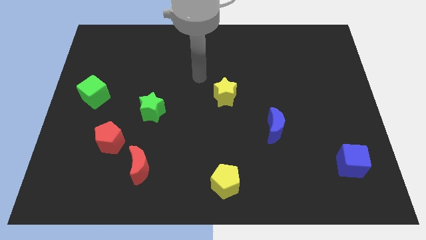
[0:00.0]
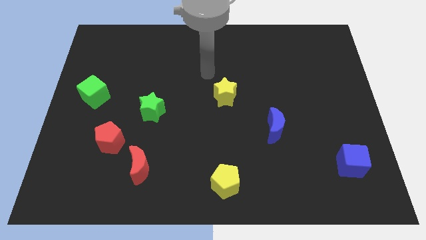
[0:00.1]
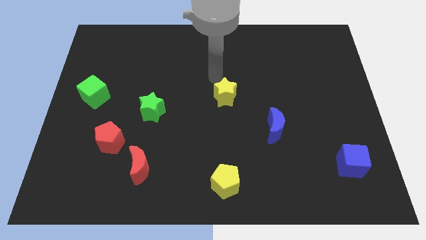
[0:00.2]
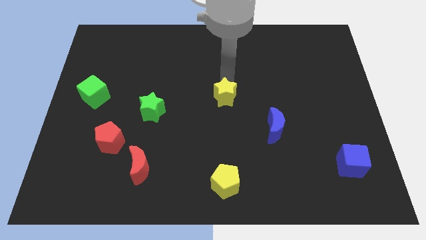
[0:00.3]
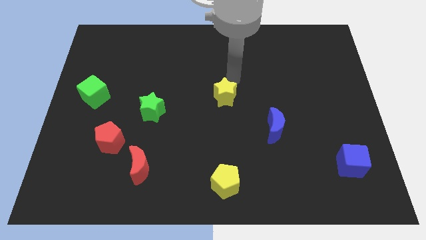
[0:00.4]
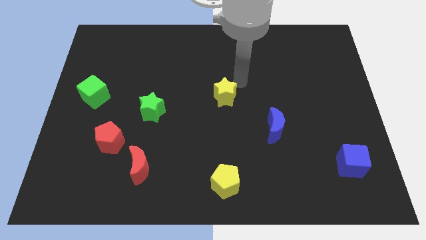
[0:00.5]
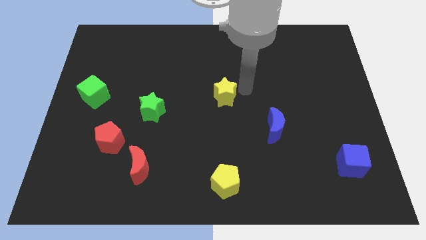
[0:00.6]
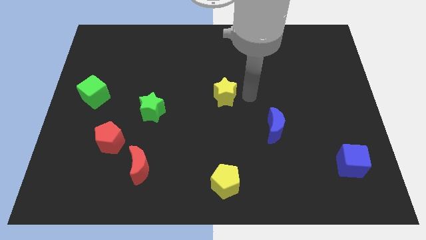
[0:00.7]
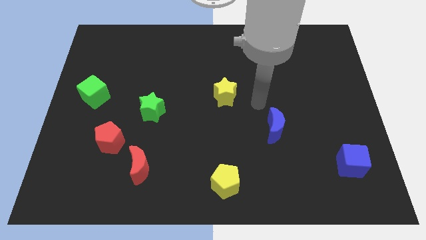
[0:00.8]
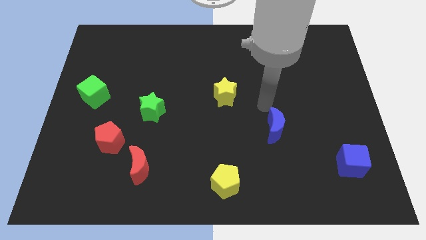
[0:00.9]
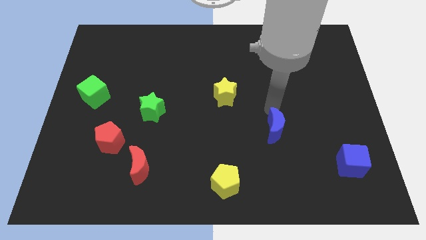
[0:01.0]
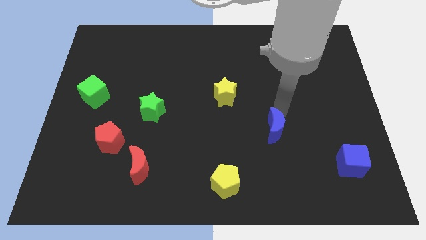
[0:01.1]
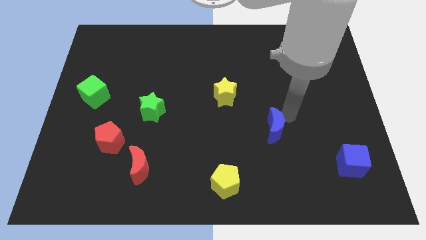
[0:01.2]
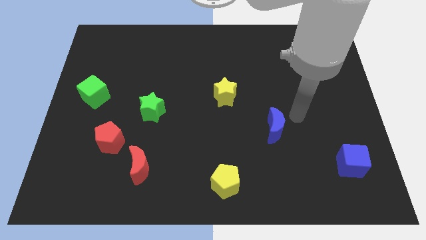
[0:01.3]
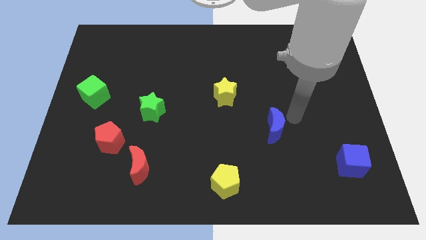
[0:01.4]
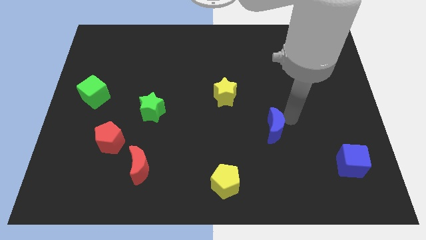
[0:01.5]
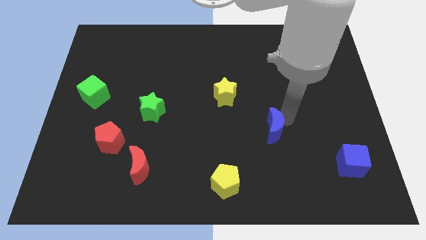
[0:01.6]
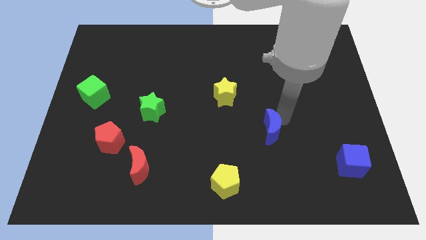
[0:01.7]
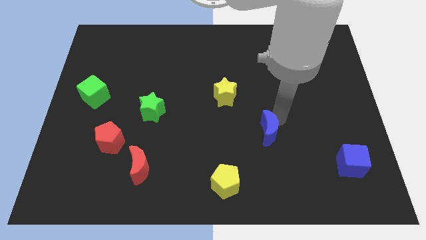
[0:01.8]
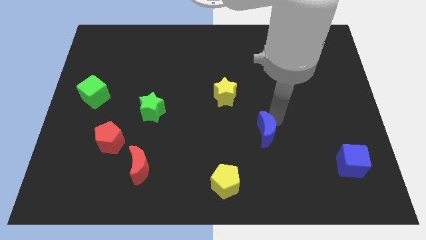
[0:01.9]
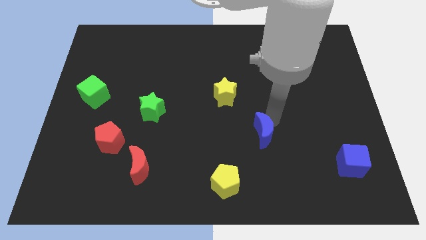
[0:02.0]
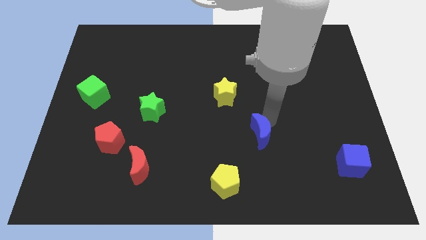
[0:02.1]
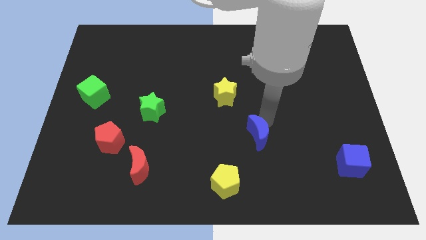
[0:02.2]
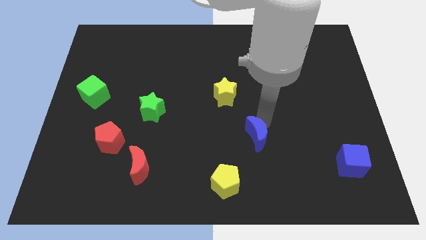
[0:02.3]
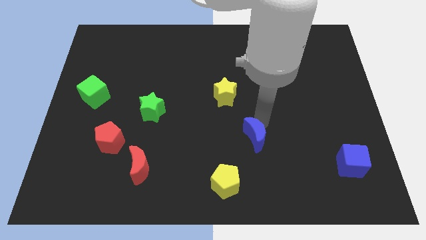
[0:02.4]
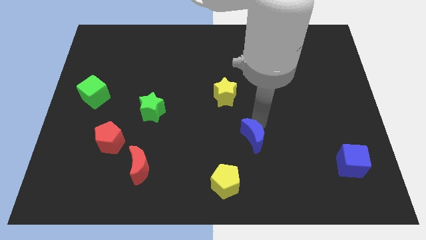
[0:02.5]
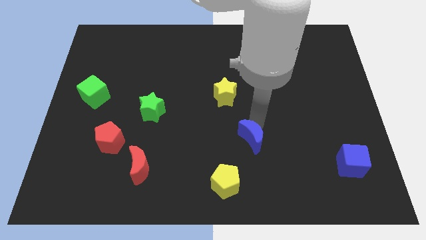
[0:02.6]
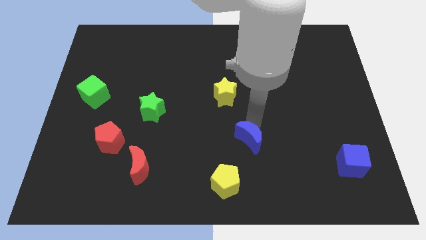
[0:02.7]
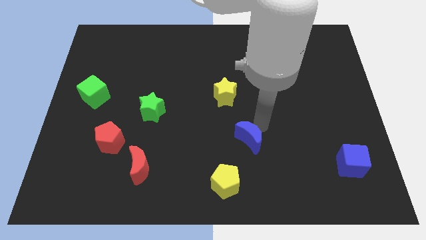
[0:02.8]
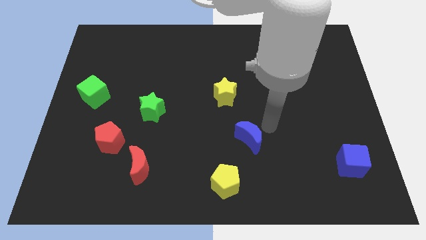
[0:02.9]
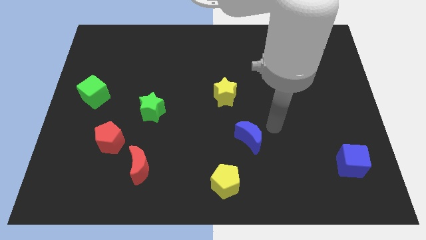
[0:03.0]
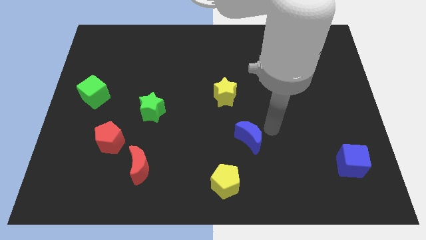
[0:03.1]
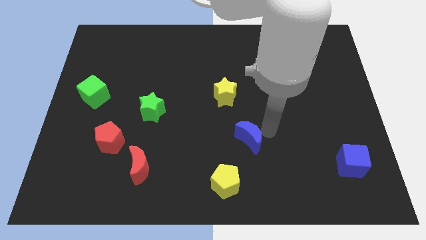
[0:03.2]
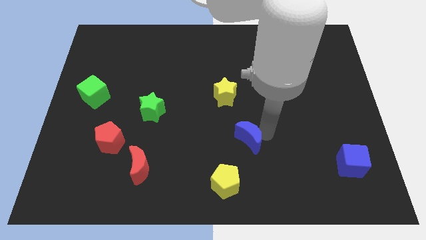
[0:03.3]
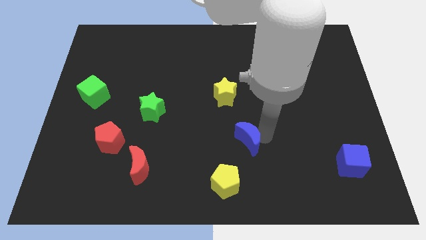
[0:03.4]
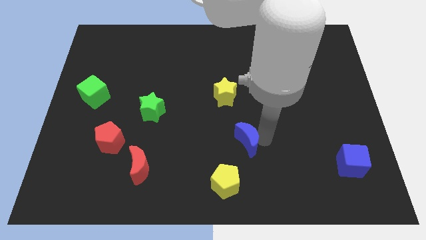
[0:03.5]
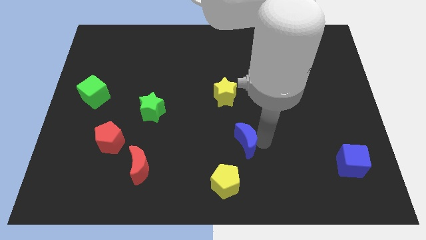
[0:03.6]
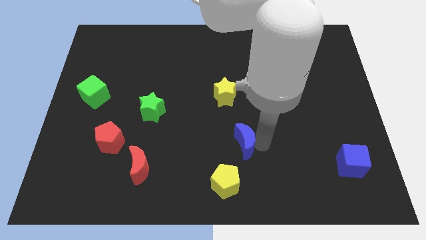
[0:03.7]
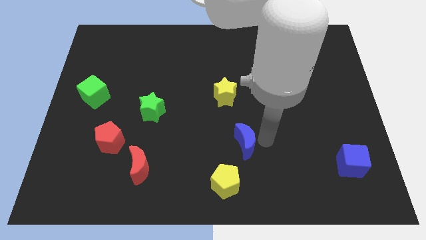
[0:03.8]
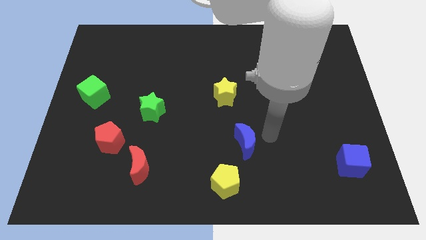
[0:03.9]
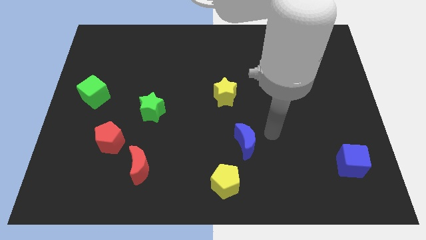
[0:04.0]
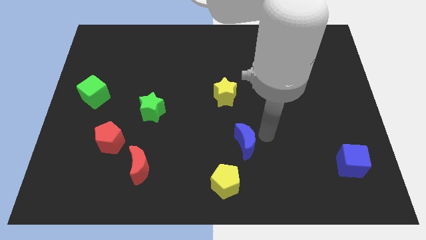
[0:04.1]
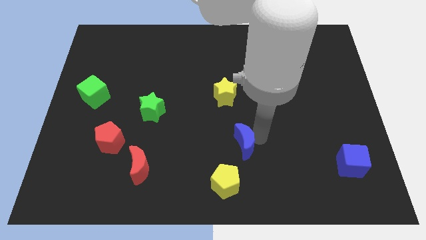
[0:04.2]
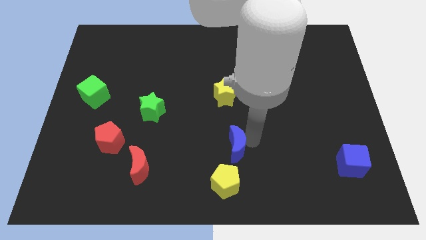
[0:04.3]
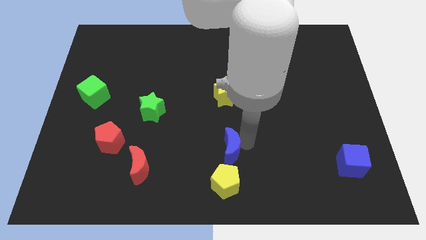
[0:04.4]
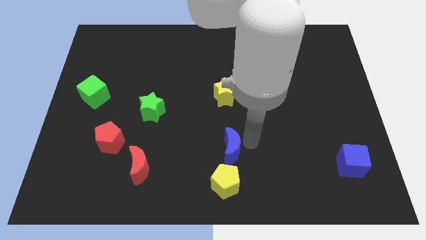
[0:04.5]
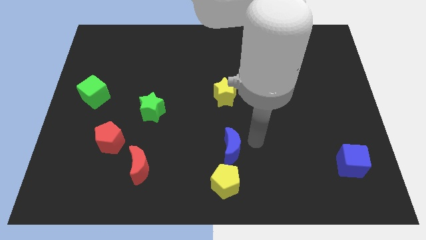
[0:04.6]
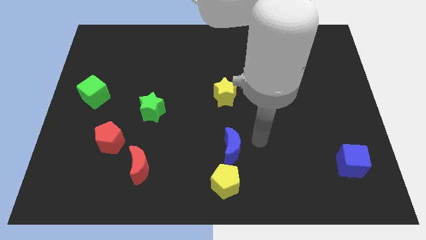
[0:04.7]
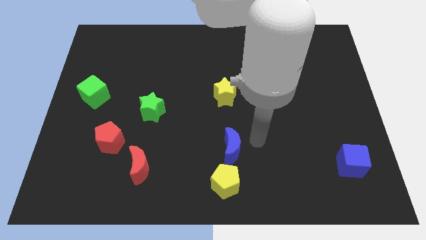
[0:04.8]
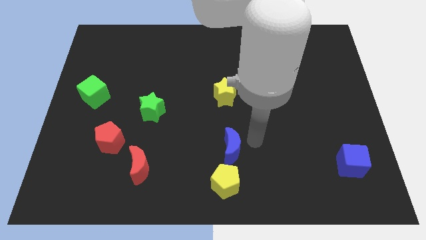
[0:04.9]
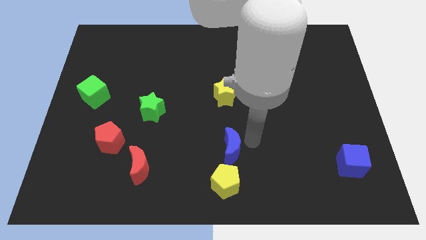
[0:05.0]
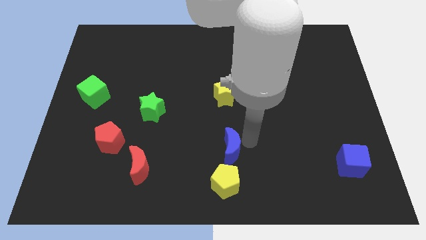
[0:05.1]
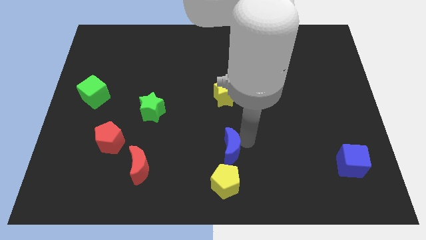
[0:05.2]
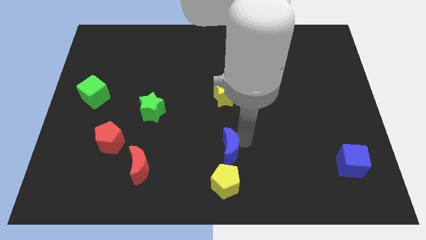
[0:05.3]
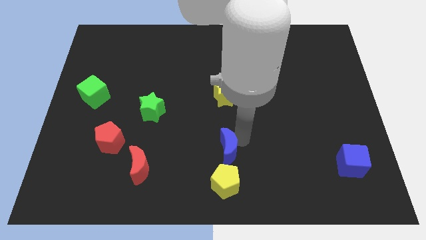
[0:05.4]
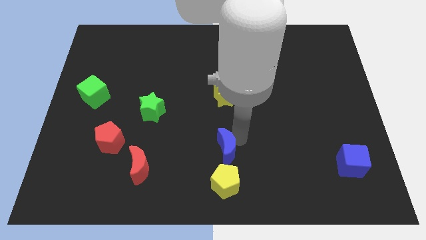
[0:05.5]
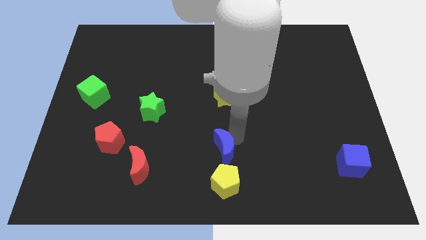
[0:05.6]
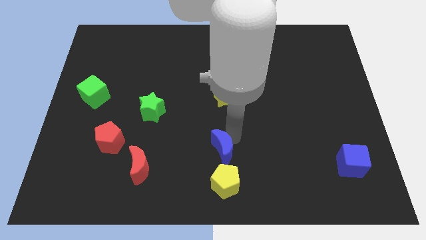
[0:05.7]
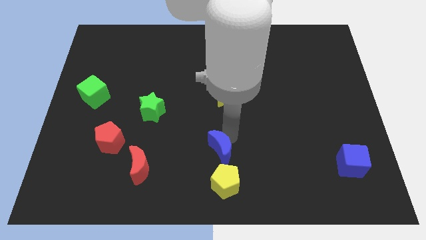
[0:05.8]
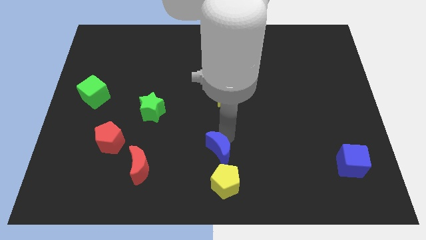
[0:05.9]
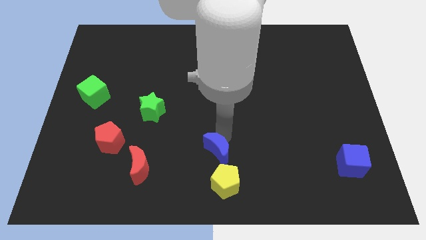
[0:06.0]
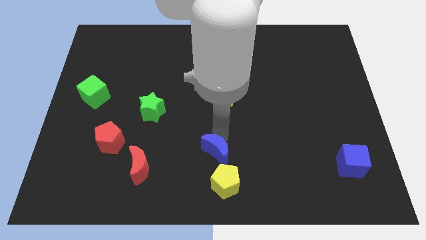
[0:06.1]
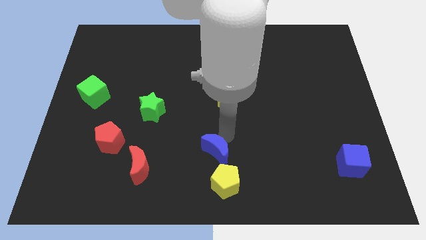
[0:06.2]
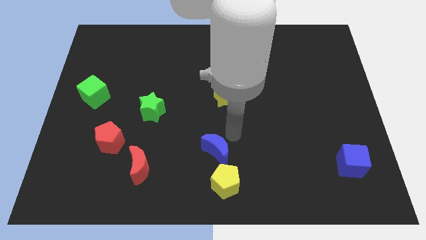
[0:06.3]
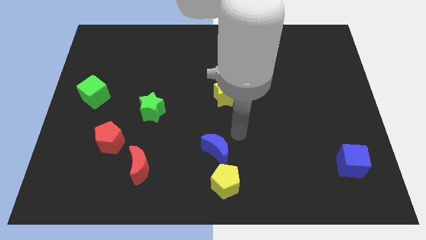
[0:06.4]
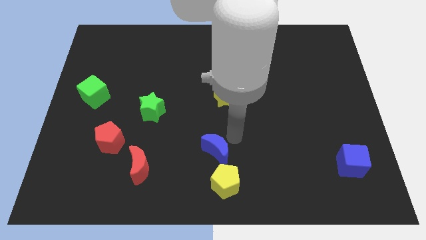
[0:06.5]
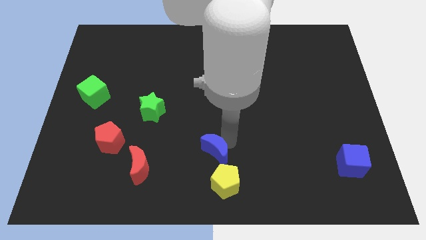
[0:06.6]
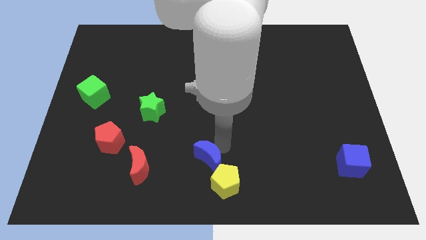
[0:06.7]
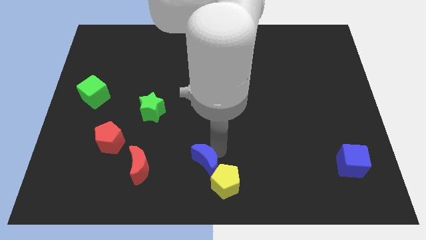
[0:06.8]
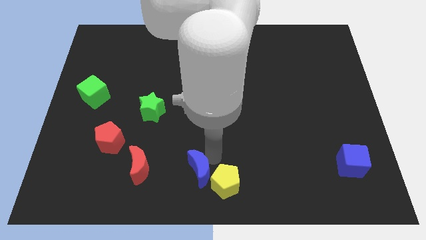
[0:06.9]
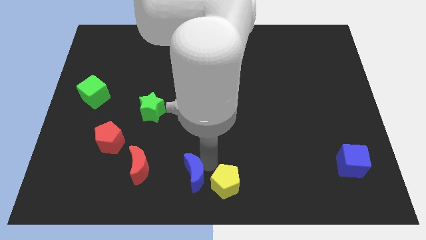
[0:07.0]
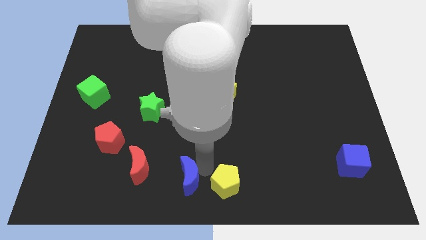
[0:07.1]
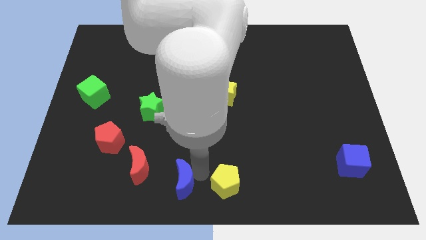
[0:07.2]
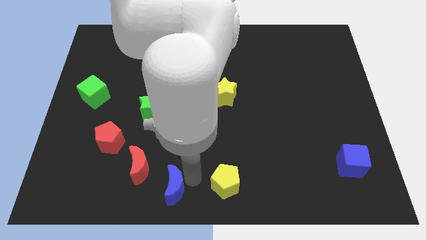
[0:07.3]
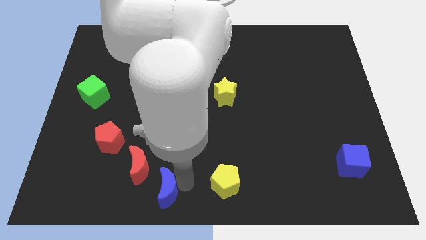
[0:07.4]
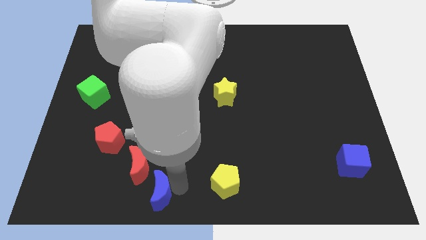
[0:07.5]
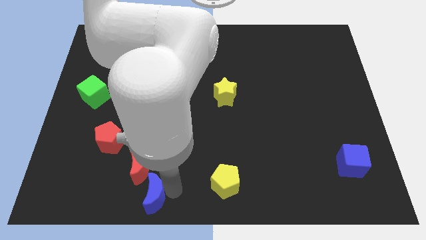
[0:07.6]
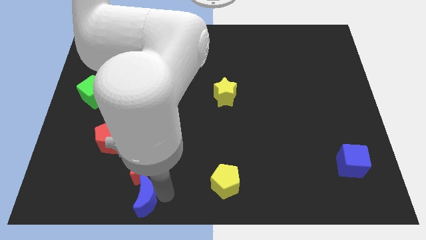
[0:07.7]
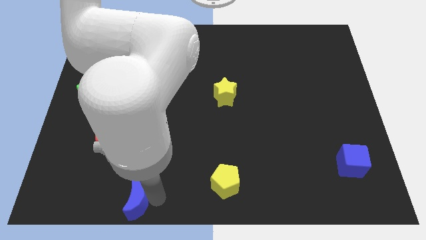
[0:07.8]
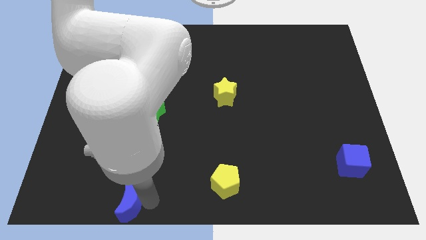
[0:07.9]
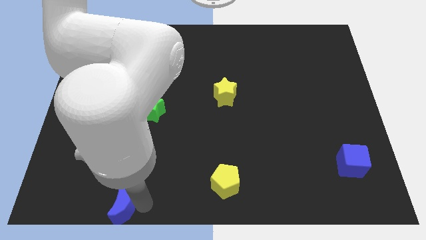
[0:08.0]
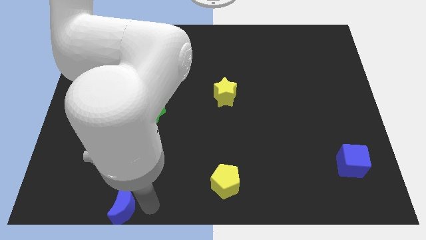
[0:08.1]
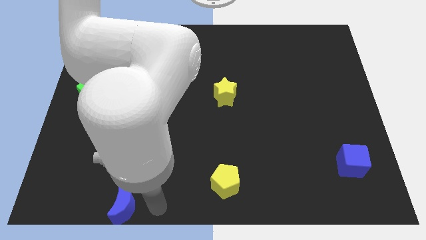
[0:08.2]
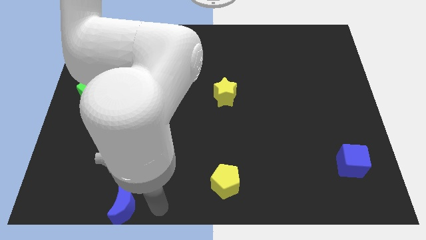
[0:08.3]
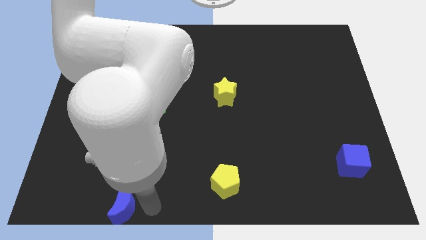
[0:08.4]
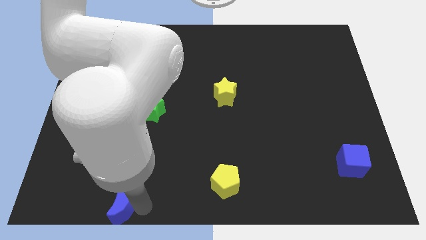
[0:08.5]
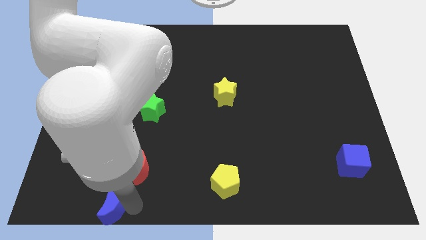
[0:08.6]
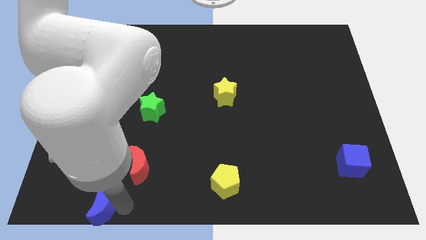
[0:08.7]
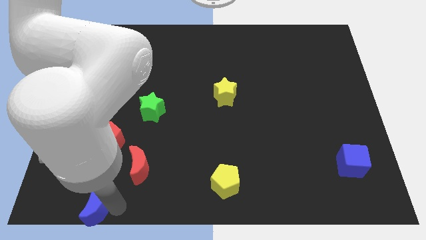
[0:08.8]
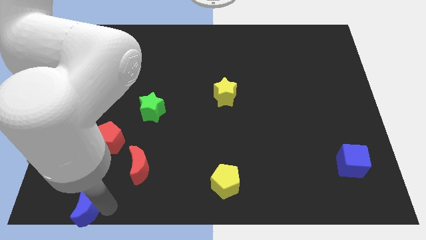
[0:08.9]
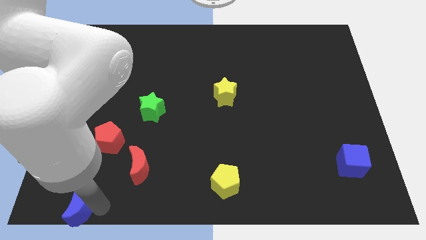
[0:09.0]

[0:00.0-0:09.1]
slide the blue moon to the bottom left of the board
